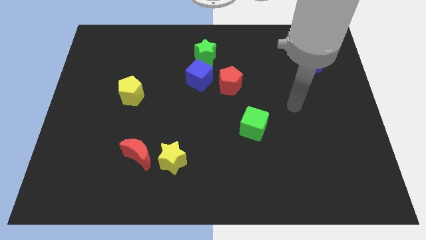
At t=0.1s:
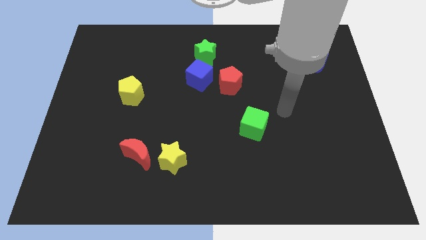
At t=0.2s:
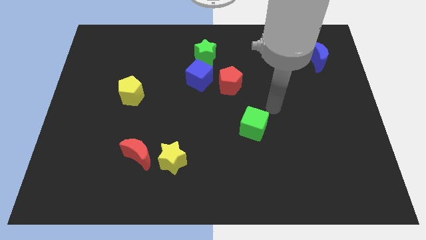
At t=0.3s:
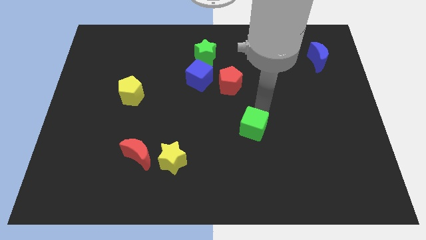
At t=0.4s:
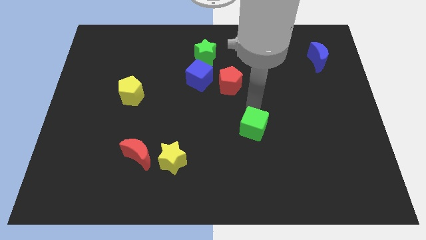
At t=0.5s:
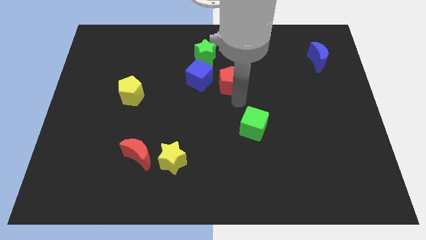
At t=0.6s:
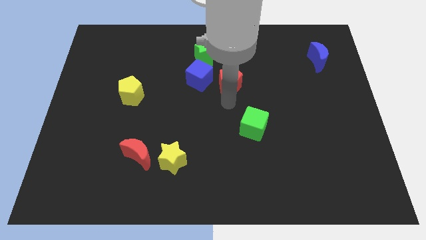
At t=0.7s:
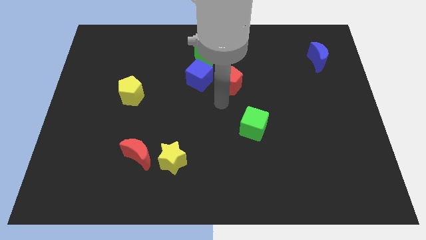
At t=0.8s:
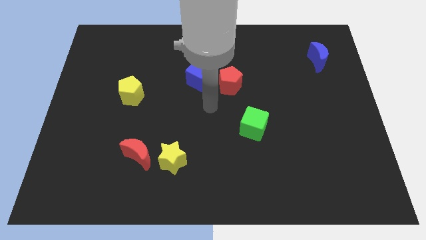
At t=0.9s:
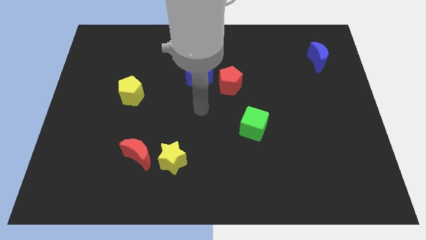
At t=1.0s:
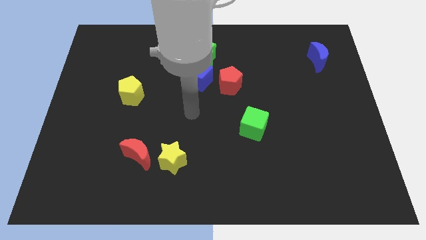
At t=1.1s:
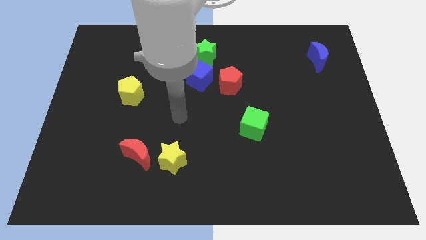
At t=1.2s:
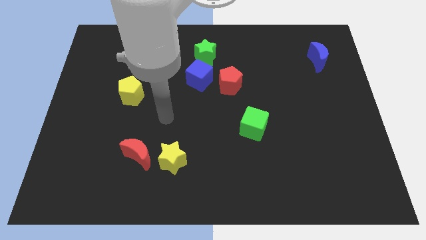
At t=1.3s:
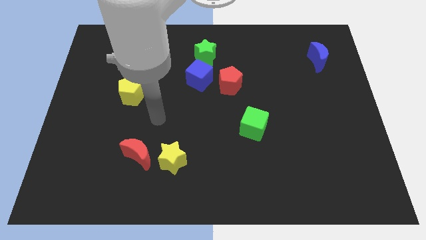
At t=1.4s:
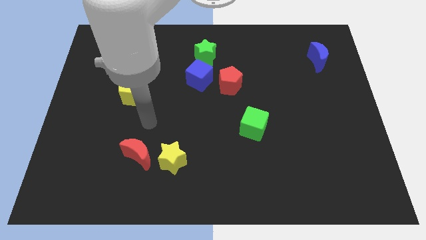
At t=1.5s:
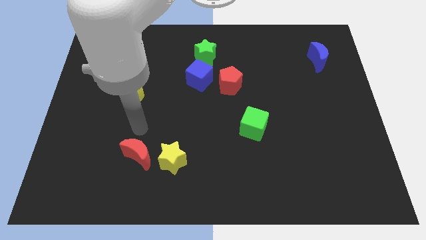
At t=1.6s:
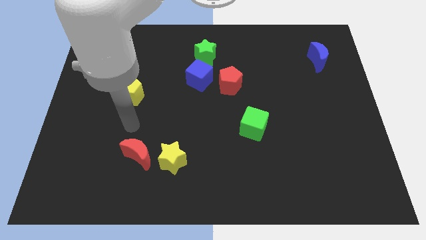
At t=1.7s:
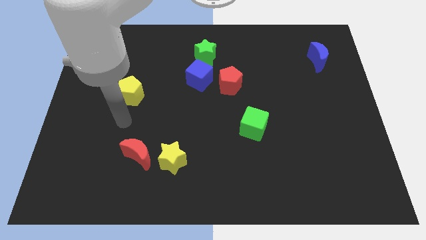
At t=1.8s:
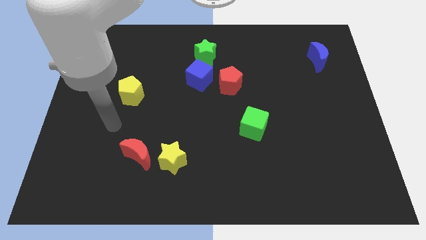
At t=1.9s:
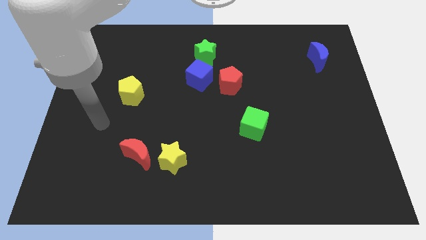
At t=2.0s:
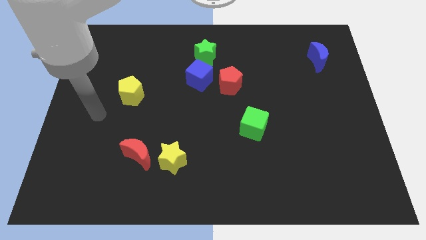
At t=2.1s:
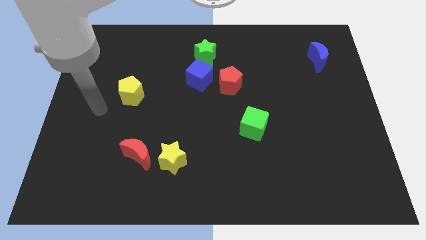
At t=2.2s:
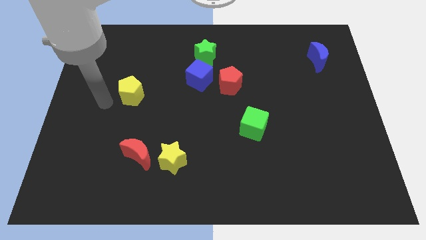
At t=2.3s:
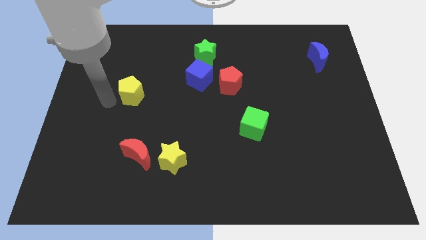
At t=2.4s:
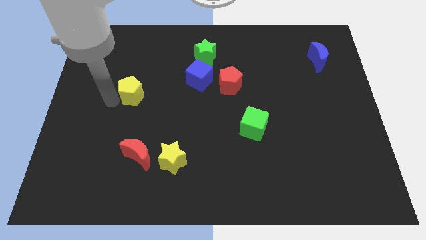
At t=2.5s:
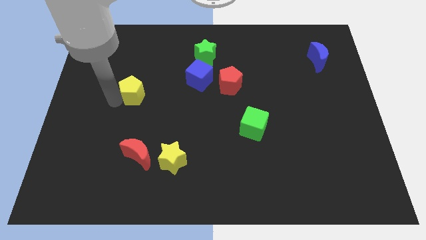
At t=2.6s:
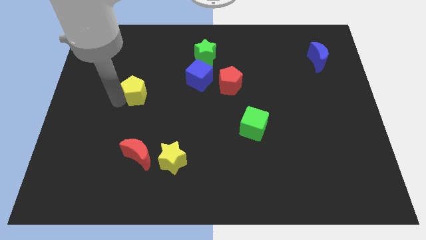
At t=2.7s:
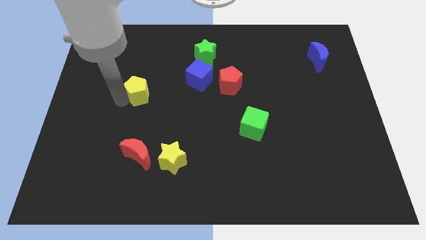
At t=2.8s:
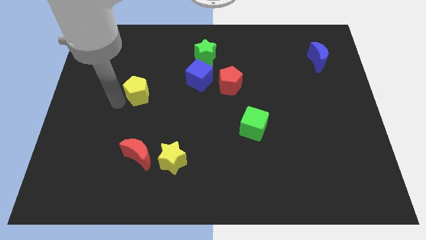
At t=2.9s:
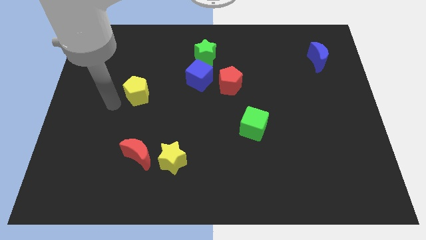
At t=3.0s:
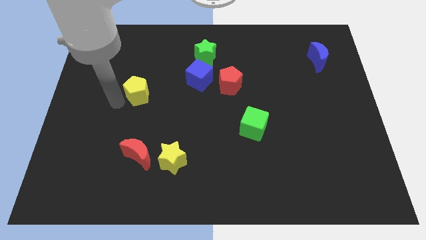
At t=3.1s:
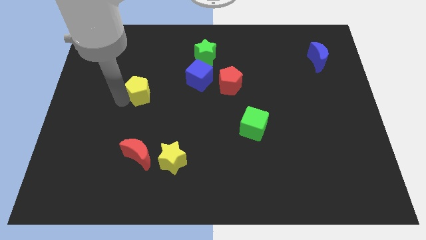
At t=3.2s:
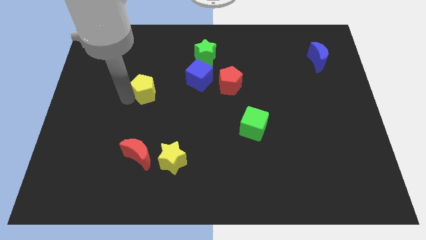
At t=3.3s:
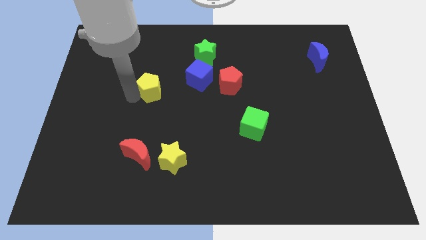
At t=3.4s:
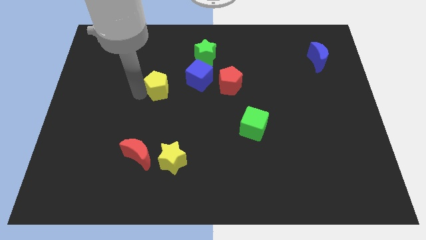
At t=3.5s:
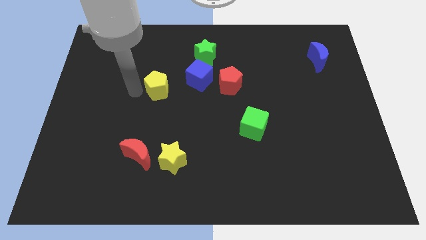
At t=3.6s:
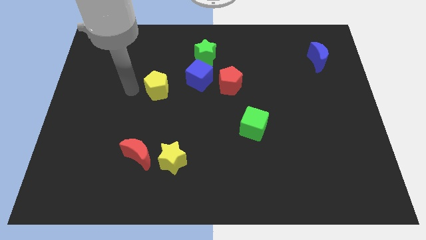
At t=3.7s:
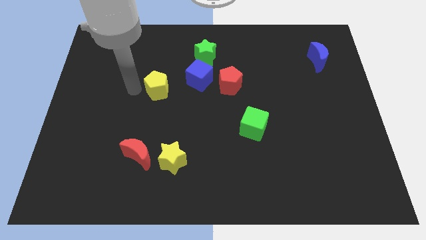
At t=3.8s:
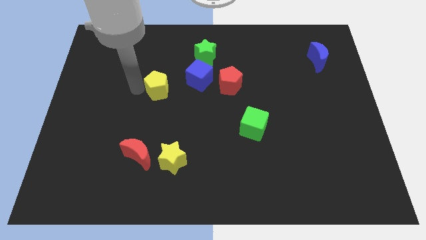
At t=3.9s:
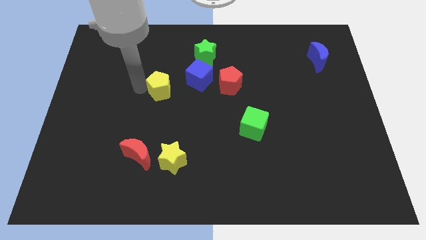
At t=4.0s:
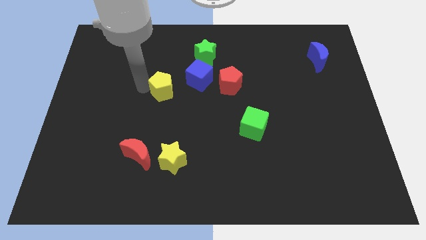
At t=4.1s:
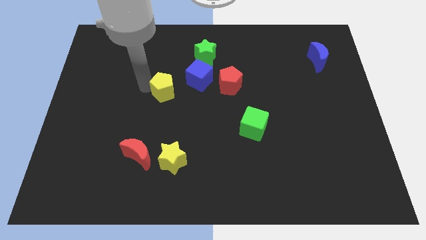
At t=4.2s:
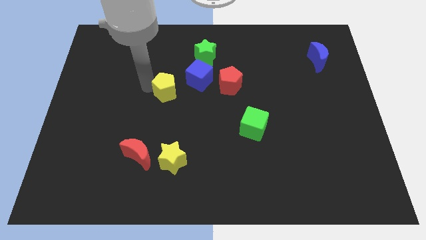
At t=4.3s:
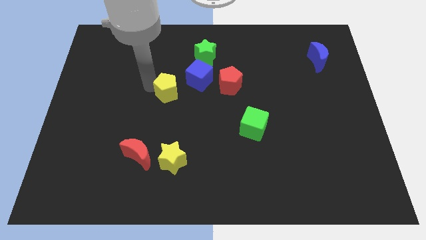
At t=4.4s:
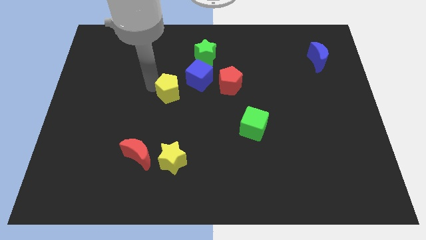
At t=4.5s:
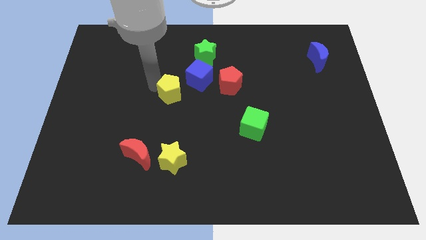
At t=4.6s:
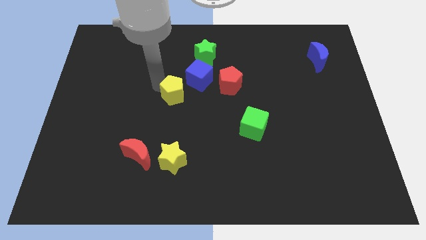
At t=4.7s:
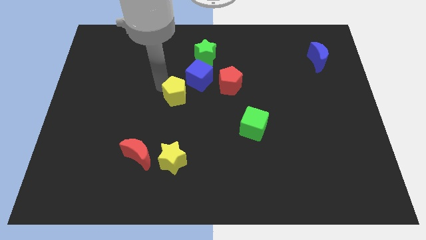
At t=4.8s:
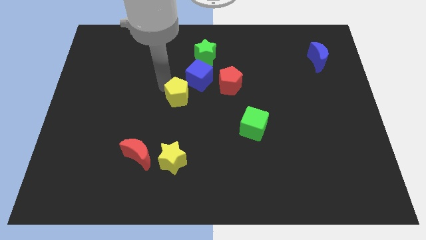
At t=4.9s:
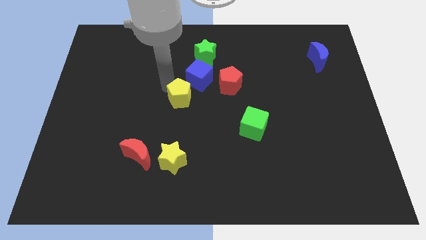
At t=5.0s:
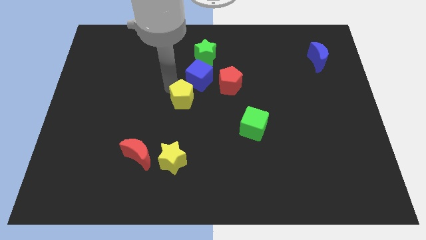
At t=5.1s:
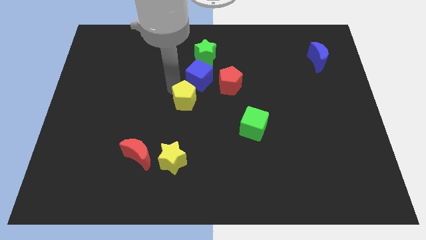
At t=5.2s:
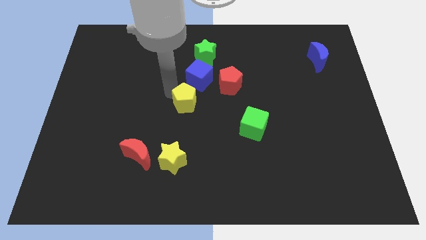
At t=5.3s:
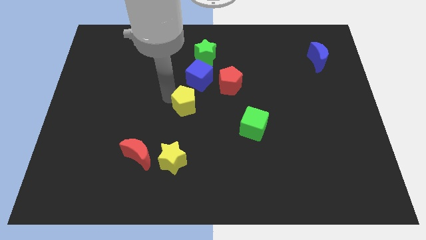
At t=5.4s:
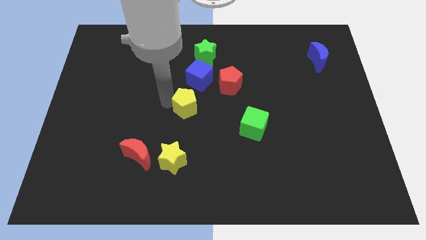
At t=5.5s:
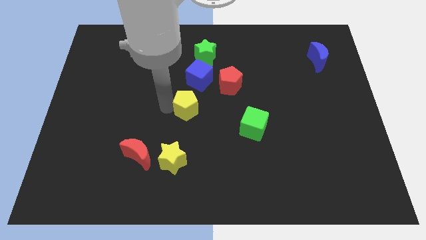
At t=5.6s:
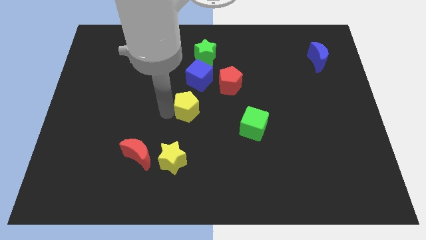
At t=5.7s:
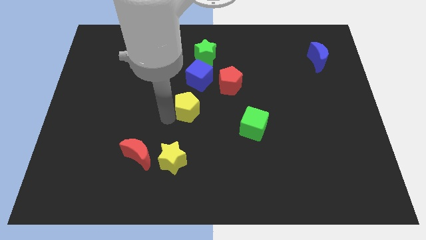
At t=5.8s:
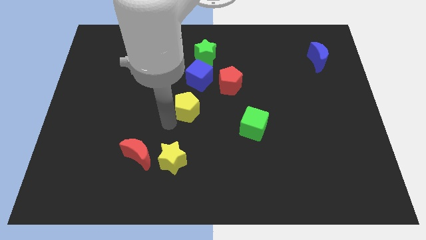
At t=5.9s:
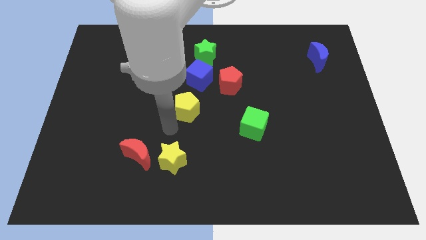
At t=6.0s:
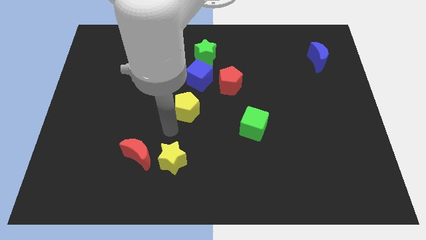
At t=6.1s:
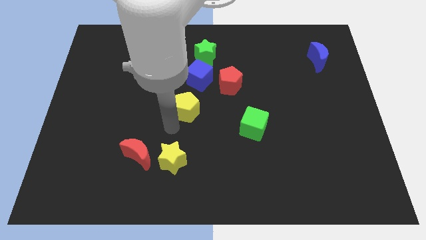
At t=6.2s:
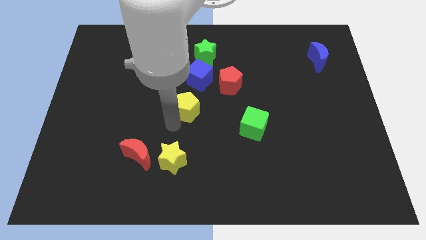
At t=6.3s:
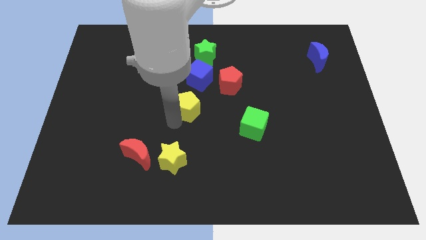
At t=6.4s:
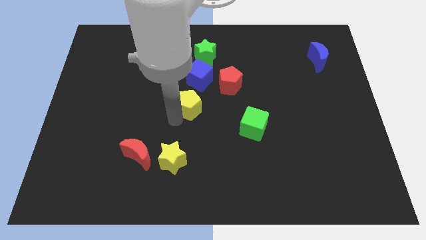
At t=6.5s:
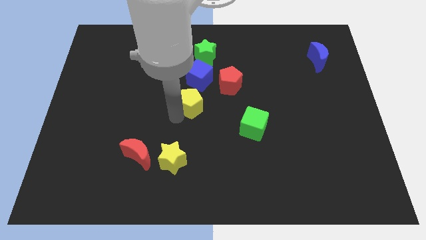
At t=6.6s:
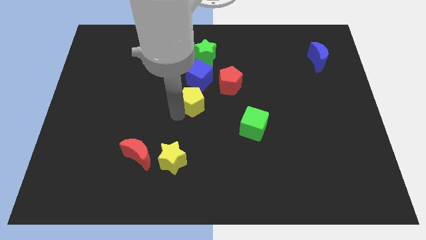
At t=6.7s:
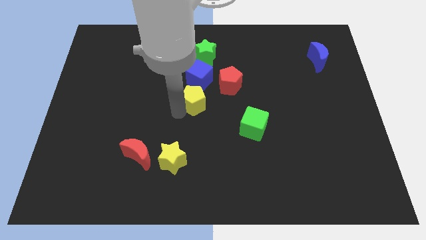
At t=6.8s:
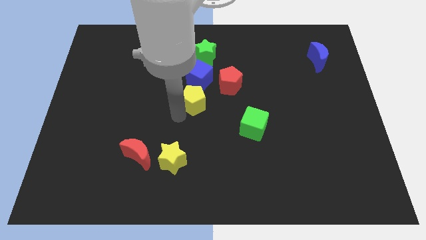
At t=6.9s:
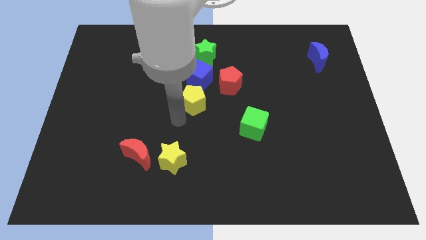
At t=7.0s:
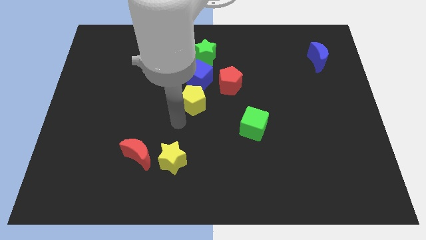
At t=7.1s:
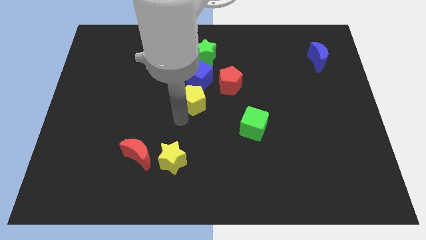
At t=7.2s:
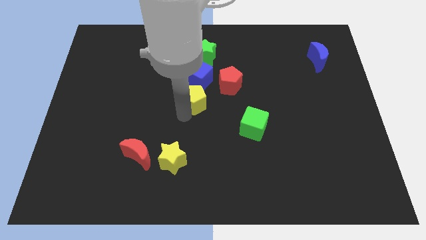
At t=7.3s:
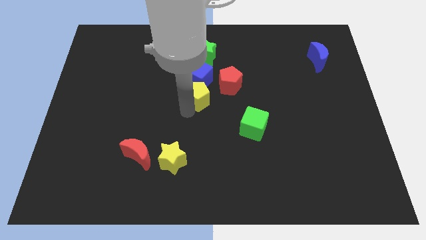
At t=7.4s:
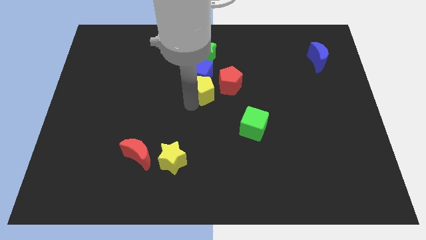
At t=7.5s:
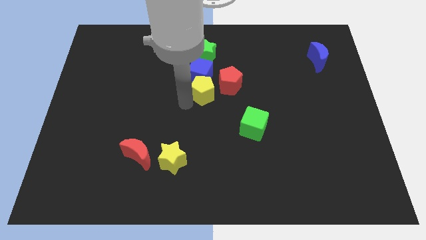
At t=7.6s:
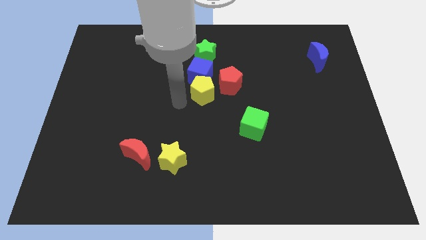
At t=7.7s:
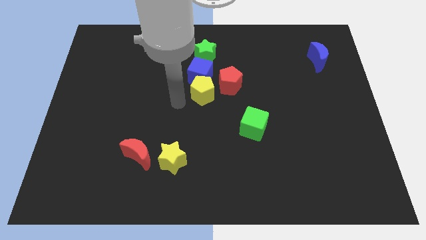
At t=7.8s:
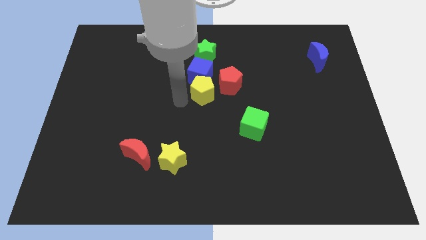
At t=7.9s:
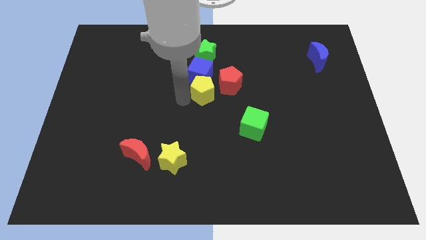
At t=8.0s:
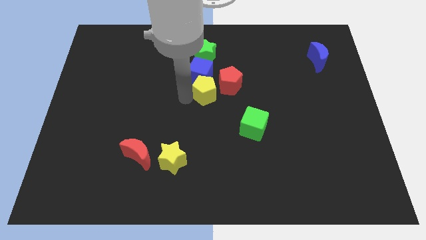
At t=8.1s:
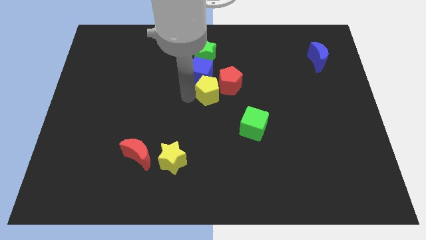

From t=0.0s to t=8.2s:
move the yellow pentagon to the red pentagon
